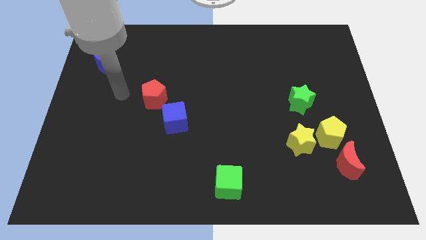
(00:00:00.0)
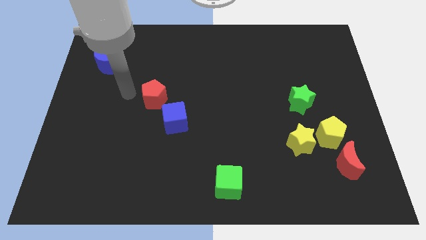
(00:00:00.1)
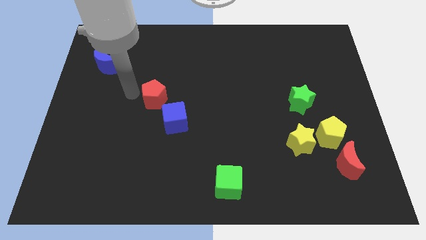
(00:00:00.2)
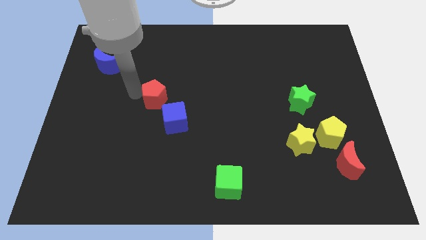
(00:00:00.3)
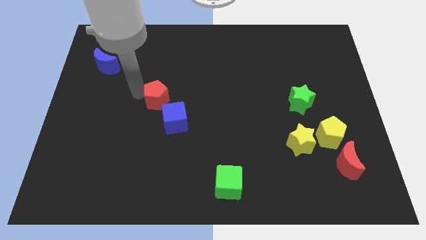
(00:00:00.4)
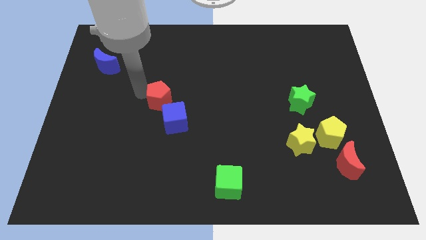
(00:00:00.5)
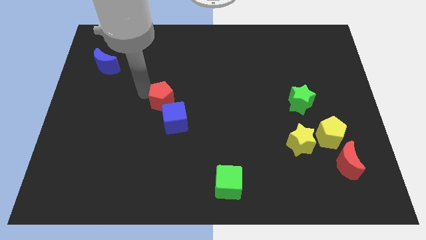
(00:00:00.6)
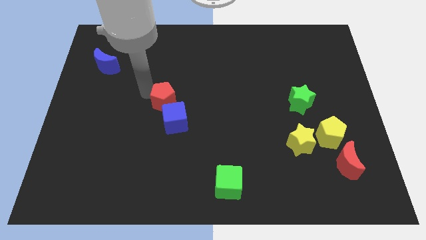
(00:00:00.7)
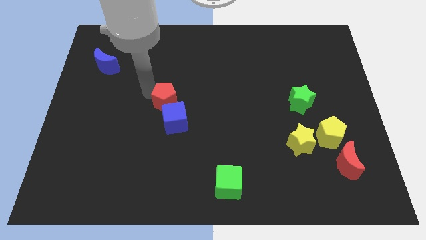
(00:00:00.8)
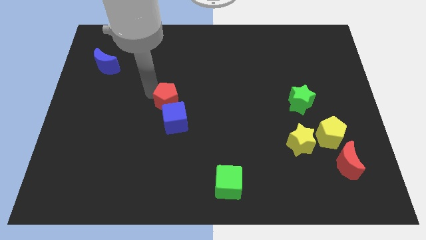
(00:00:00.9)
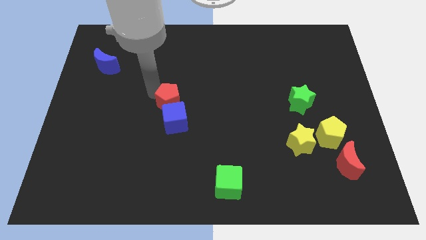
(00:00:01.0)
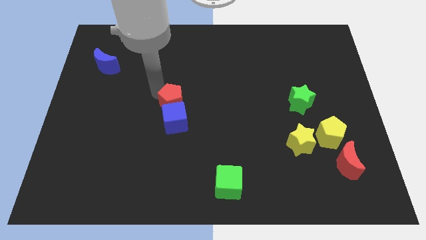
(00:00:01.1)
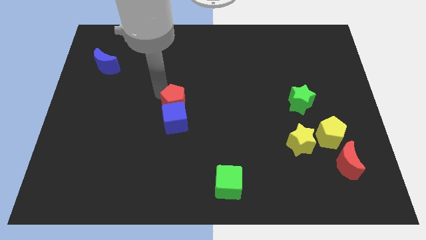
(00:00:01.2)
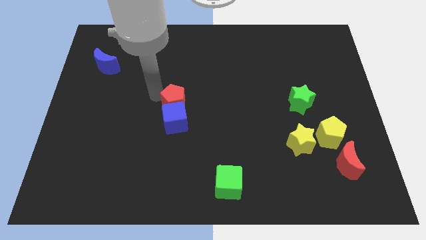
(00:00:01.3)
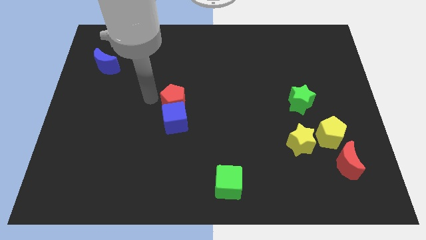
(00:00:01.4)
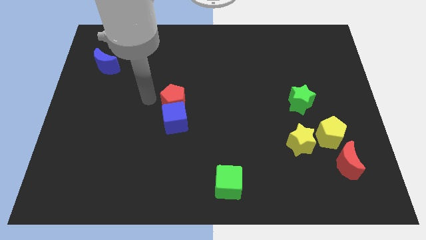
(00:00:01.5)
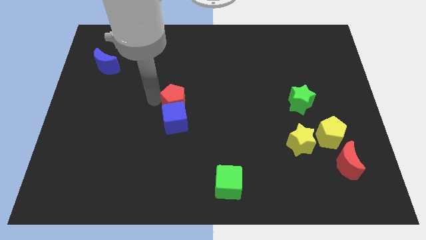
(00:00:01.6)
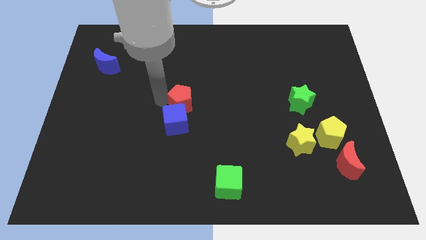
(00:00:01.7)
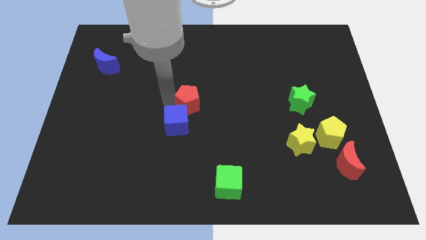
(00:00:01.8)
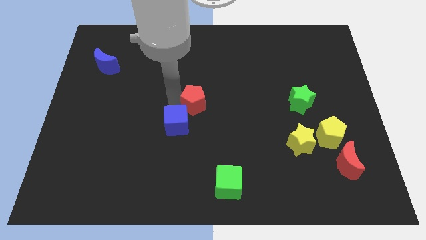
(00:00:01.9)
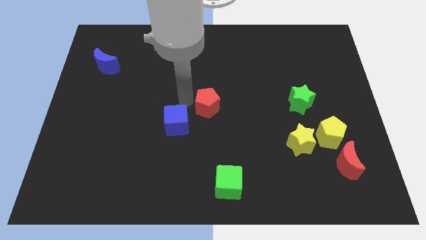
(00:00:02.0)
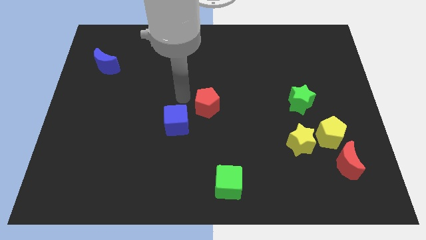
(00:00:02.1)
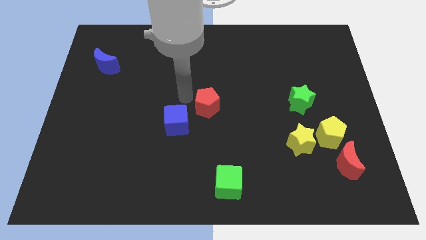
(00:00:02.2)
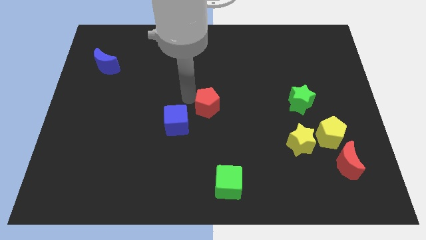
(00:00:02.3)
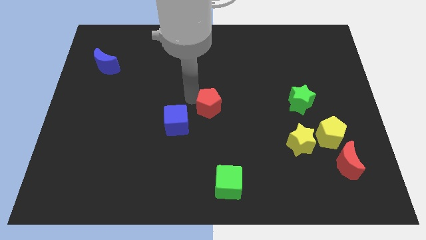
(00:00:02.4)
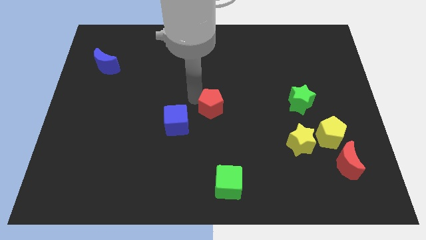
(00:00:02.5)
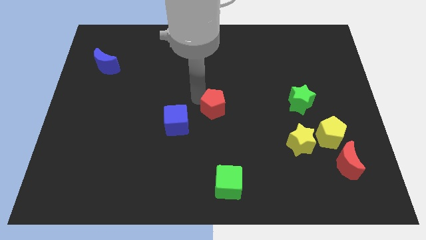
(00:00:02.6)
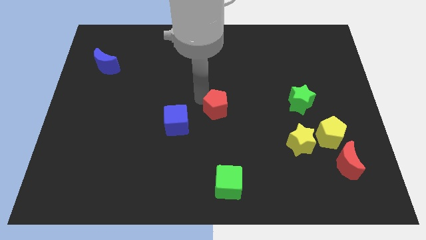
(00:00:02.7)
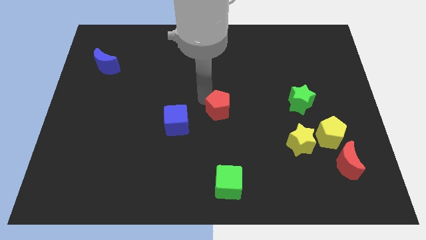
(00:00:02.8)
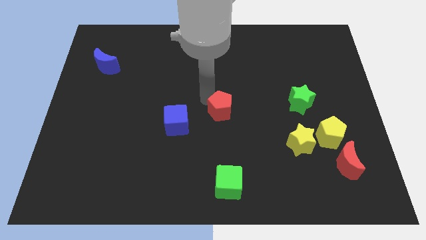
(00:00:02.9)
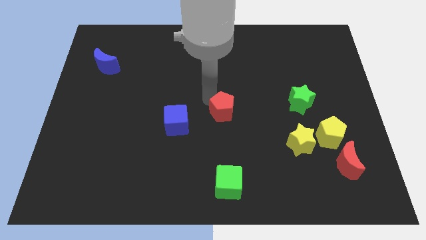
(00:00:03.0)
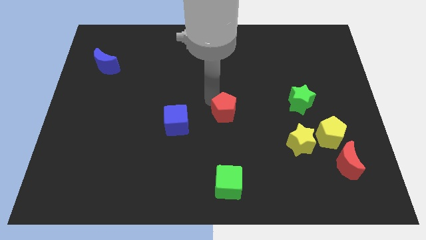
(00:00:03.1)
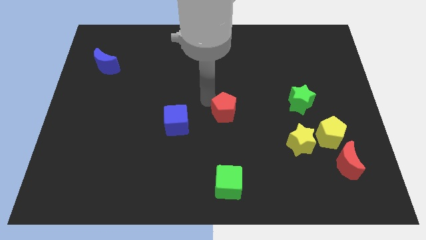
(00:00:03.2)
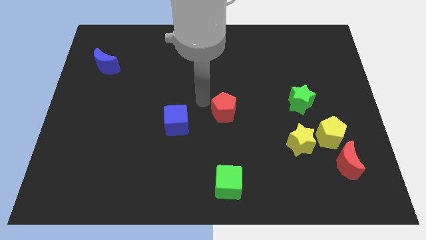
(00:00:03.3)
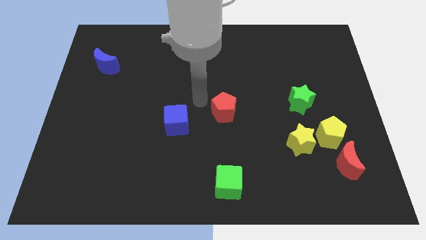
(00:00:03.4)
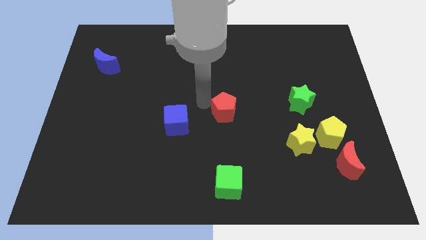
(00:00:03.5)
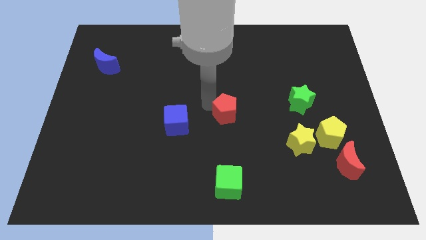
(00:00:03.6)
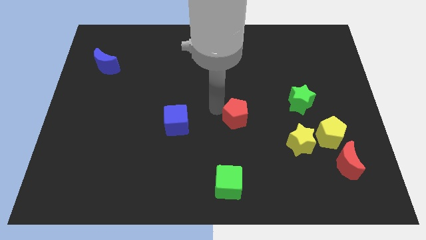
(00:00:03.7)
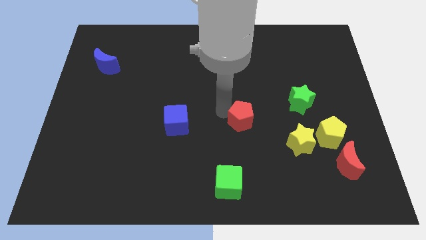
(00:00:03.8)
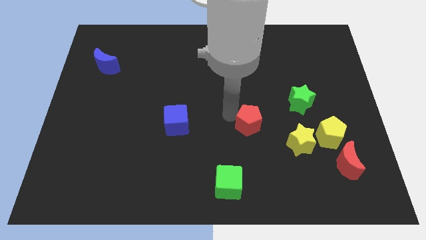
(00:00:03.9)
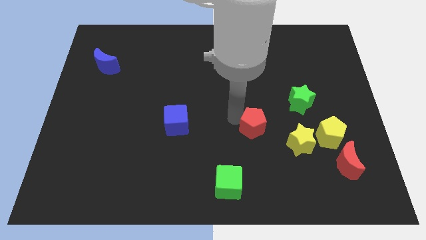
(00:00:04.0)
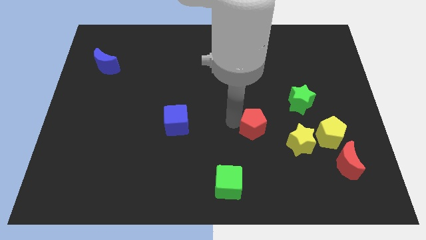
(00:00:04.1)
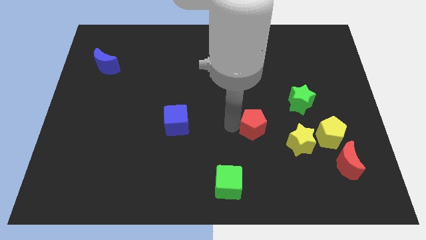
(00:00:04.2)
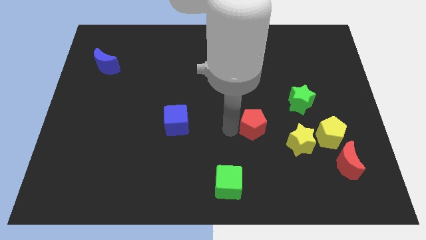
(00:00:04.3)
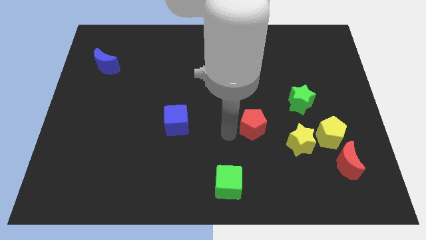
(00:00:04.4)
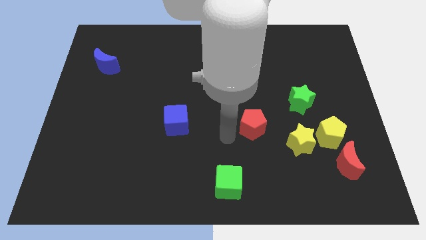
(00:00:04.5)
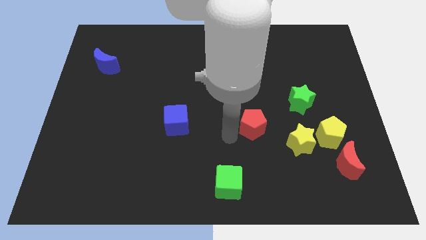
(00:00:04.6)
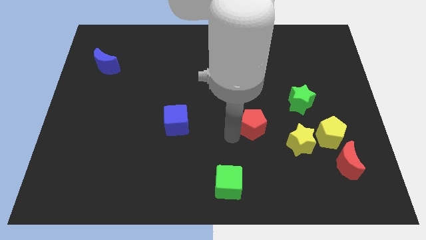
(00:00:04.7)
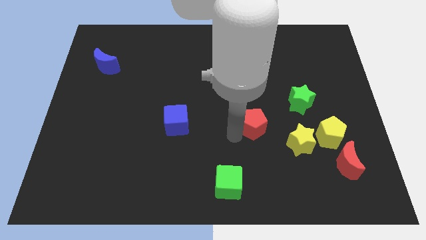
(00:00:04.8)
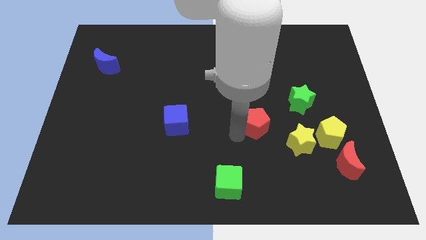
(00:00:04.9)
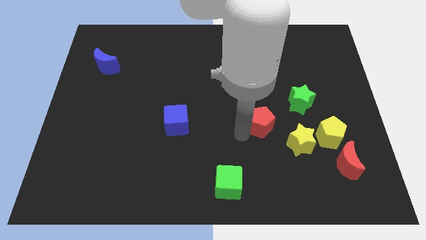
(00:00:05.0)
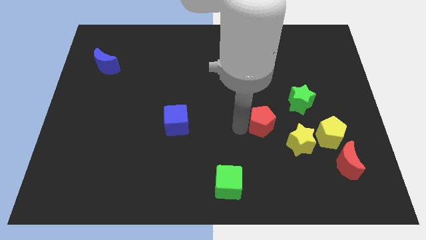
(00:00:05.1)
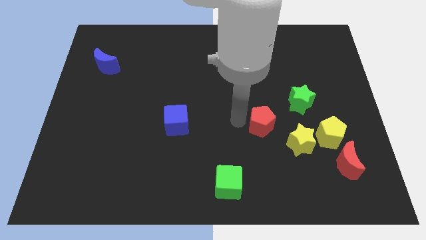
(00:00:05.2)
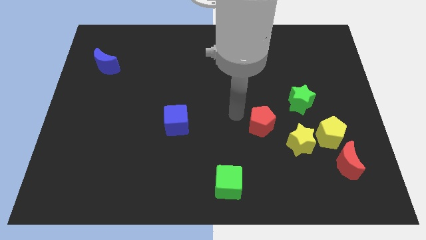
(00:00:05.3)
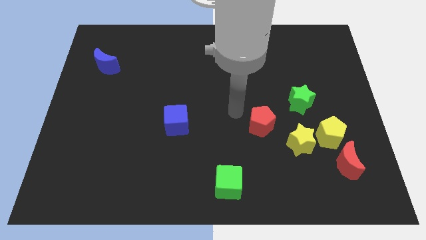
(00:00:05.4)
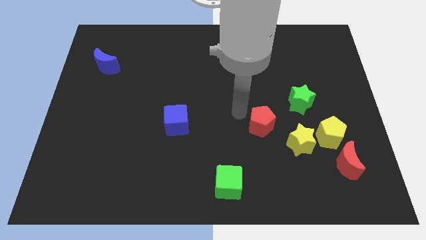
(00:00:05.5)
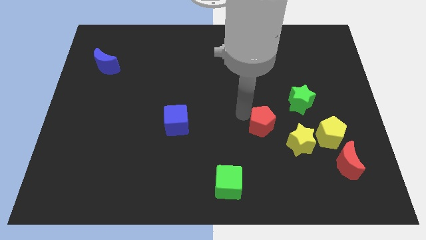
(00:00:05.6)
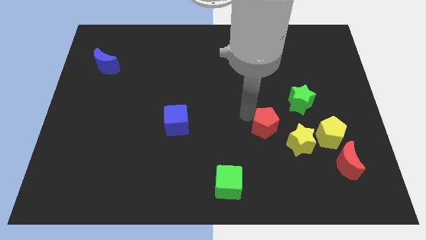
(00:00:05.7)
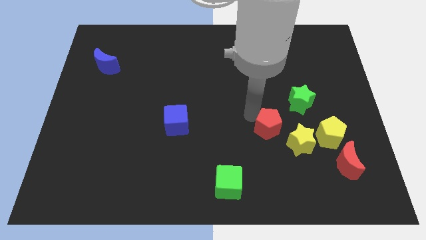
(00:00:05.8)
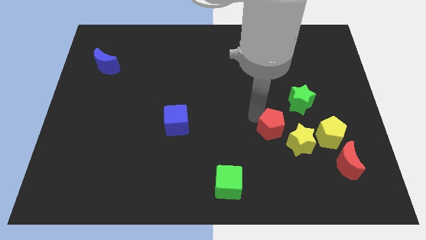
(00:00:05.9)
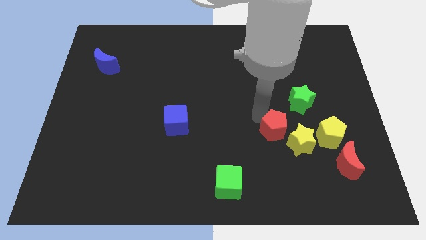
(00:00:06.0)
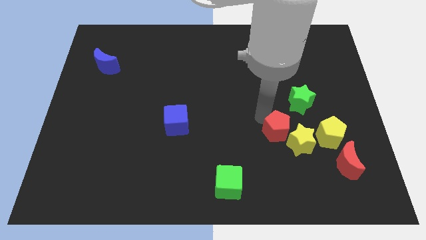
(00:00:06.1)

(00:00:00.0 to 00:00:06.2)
put the red pentagon next to the yellow star

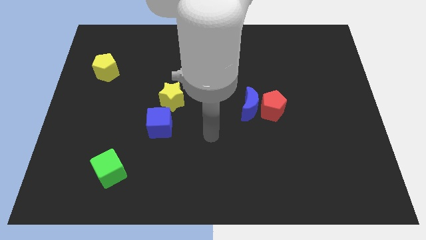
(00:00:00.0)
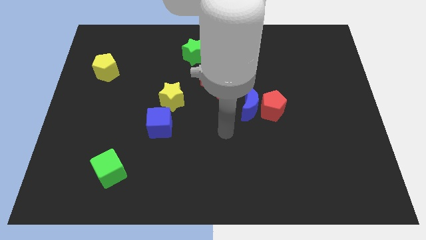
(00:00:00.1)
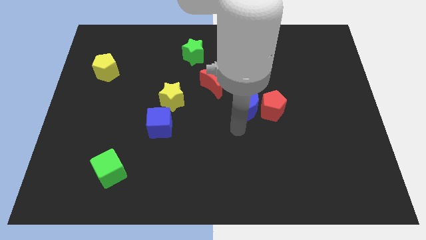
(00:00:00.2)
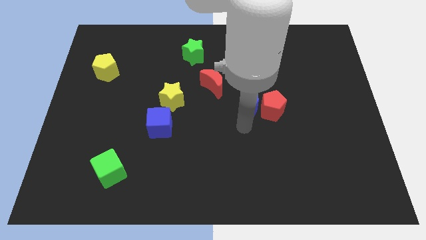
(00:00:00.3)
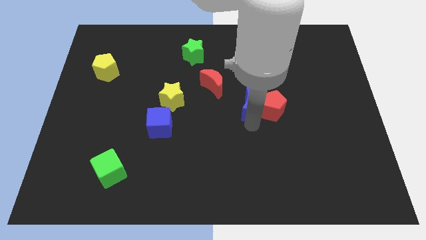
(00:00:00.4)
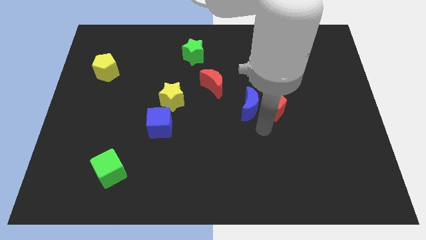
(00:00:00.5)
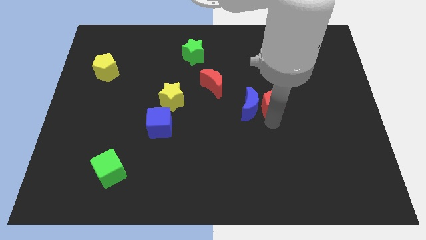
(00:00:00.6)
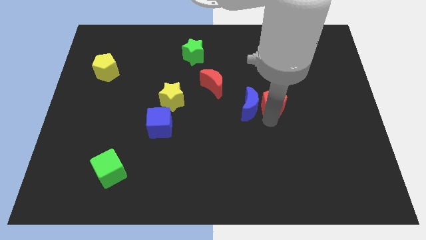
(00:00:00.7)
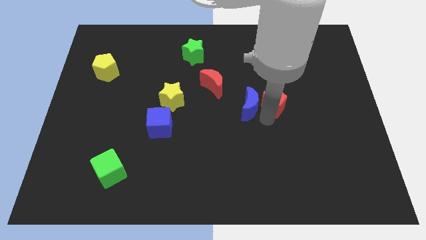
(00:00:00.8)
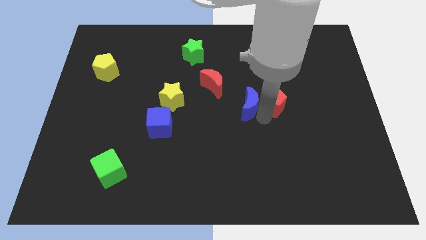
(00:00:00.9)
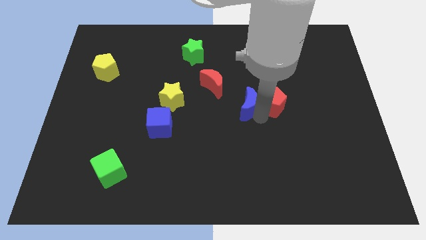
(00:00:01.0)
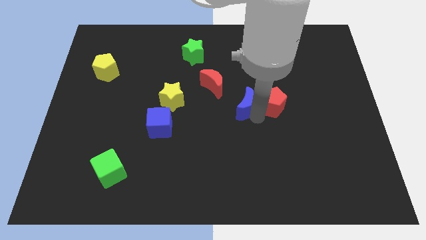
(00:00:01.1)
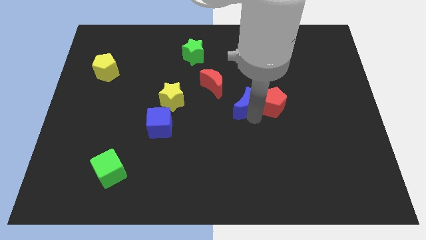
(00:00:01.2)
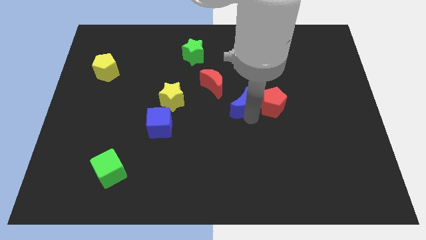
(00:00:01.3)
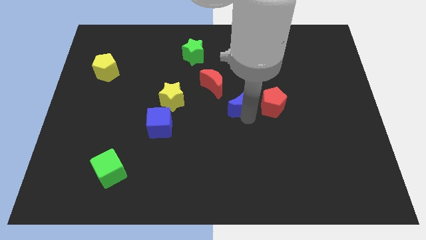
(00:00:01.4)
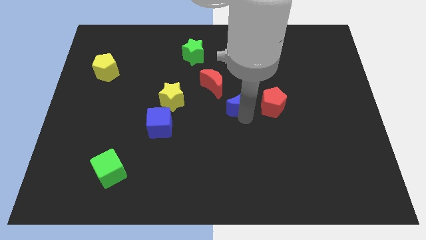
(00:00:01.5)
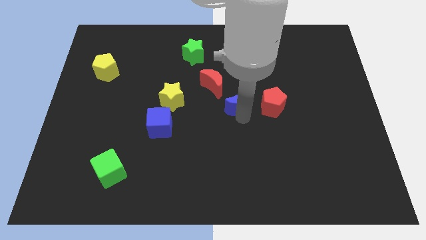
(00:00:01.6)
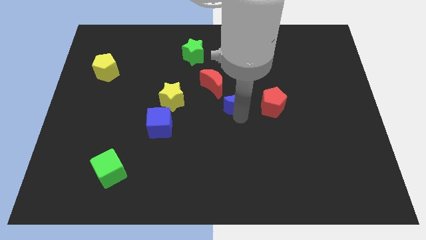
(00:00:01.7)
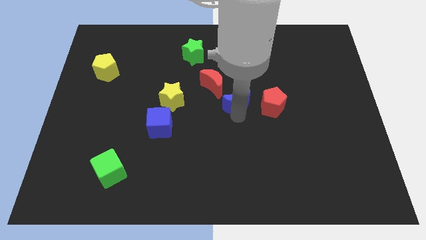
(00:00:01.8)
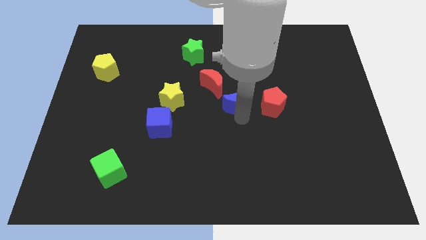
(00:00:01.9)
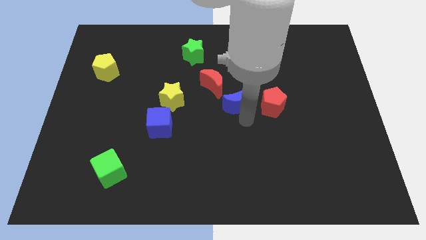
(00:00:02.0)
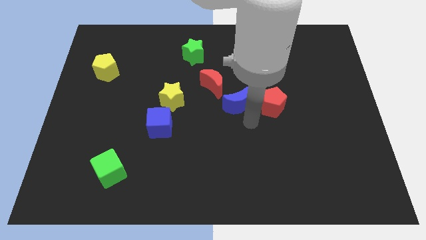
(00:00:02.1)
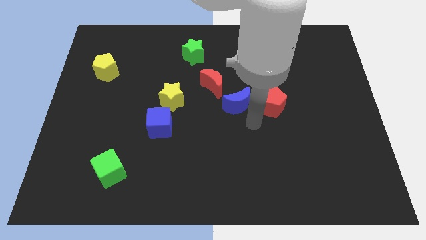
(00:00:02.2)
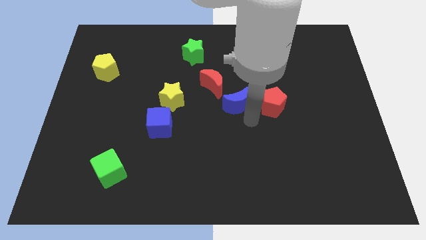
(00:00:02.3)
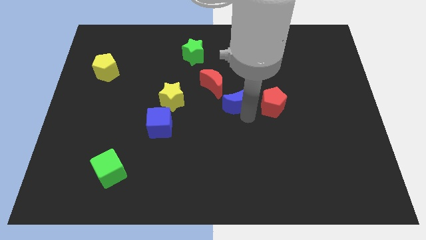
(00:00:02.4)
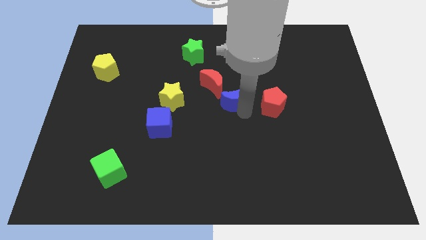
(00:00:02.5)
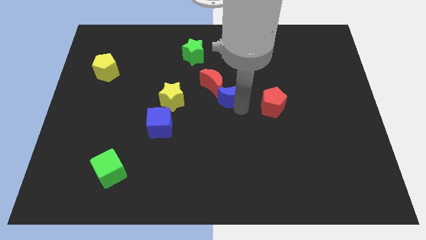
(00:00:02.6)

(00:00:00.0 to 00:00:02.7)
move the blue moon next to the red moon
